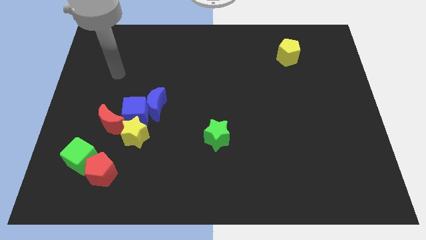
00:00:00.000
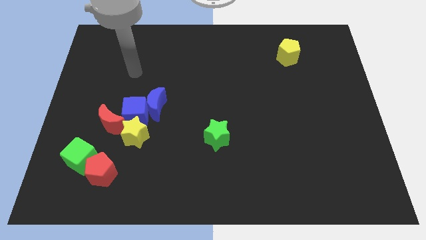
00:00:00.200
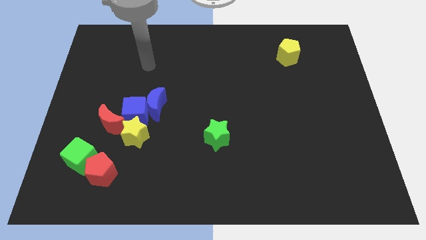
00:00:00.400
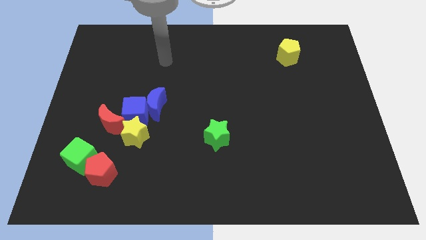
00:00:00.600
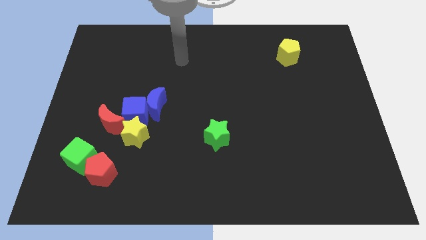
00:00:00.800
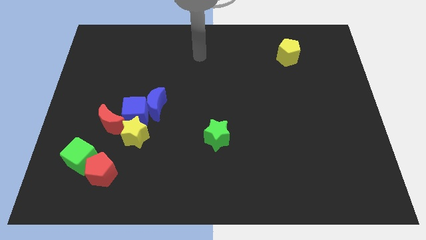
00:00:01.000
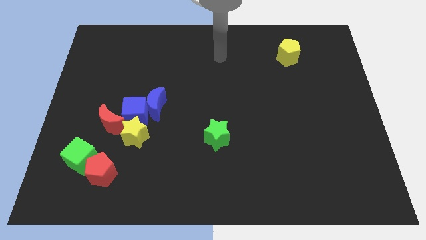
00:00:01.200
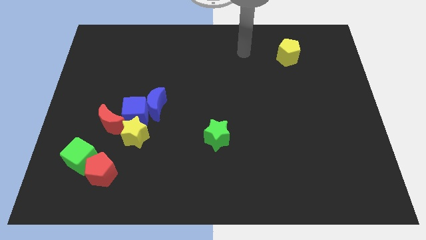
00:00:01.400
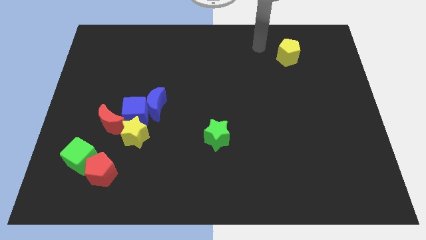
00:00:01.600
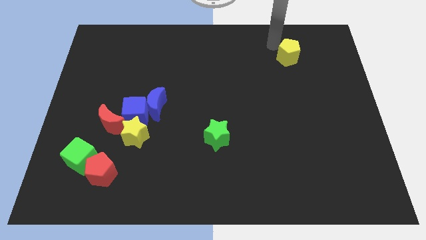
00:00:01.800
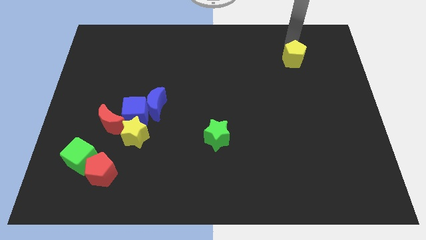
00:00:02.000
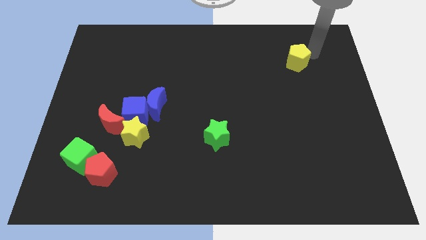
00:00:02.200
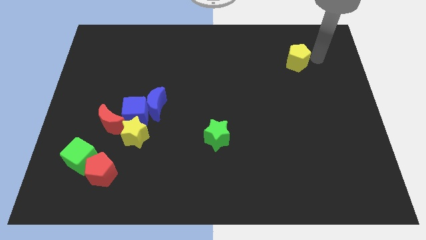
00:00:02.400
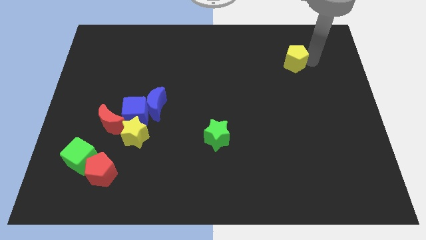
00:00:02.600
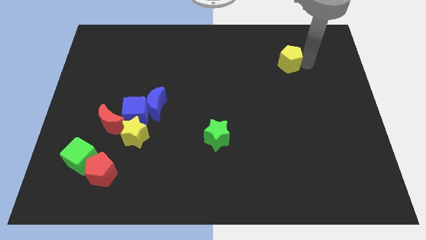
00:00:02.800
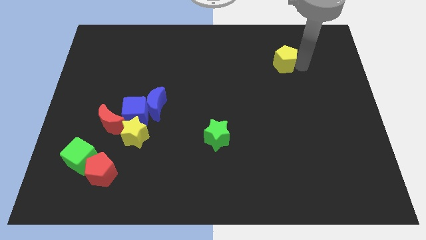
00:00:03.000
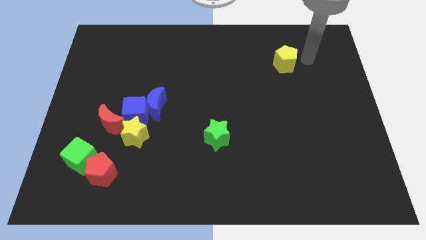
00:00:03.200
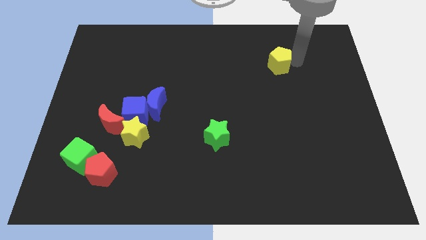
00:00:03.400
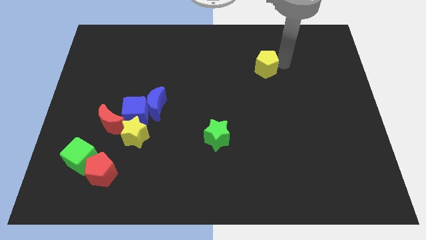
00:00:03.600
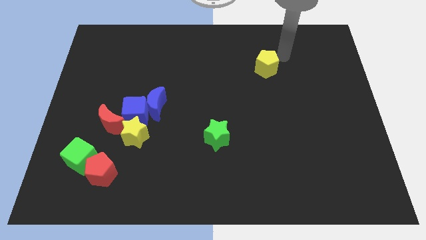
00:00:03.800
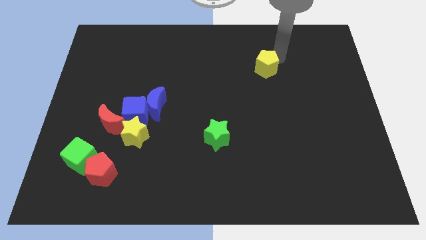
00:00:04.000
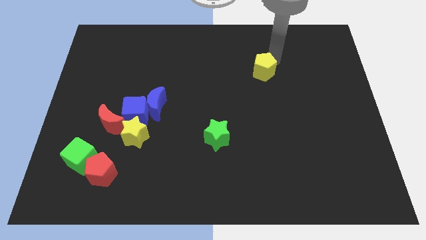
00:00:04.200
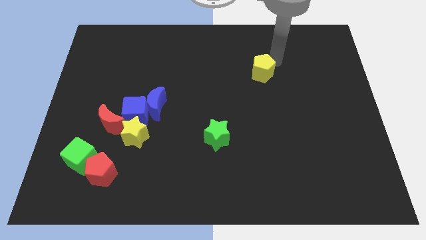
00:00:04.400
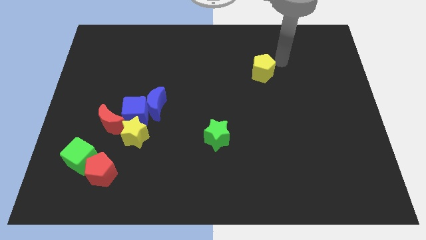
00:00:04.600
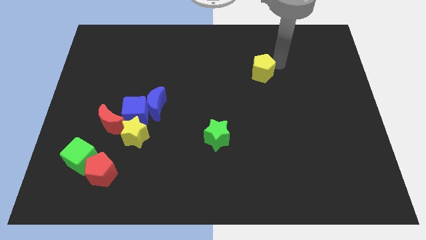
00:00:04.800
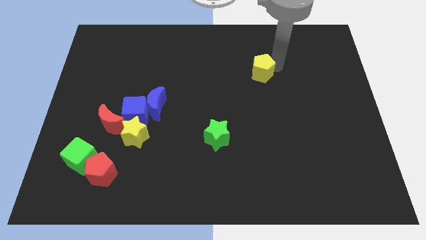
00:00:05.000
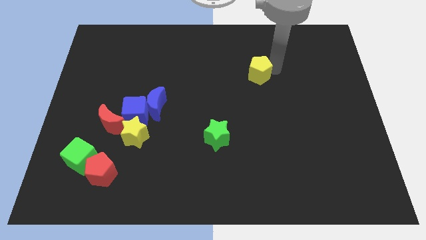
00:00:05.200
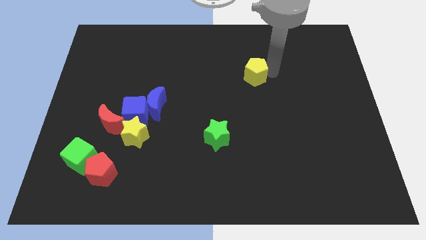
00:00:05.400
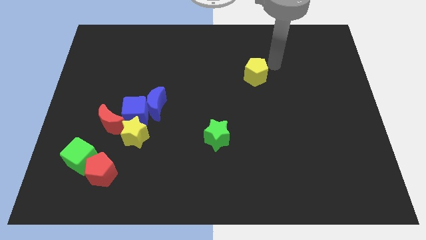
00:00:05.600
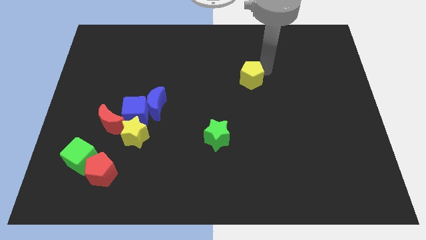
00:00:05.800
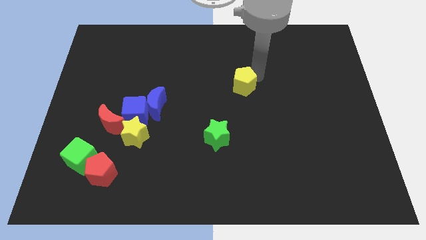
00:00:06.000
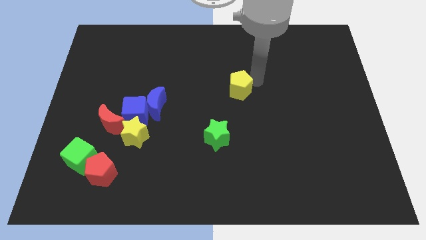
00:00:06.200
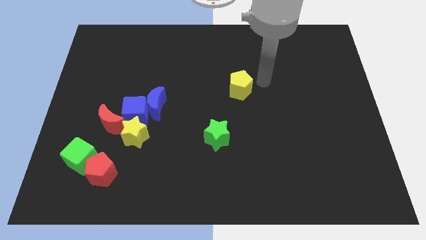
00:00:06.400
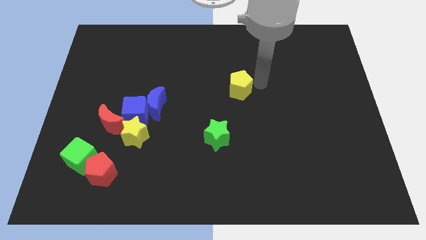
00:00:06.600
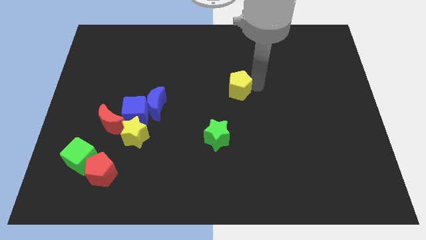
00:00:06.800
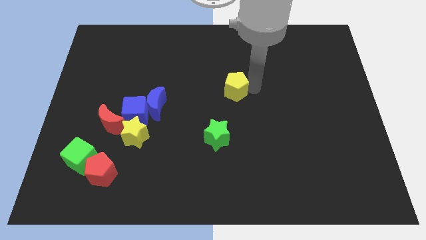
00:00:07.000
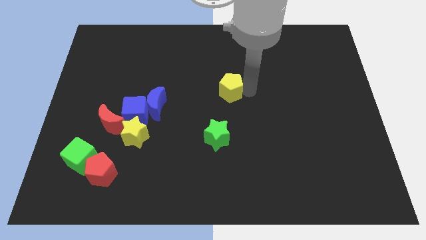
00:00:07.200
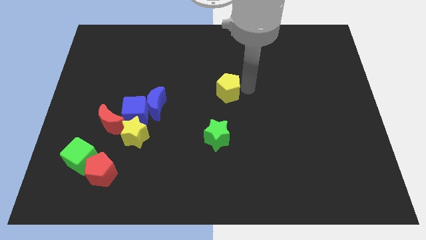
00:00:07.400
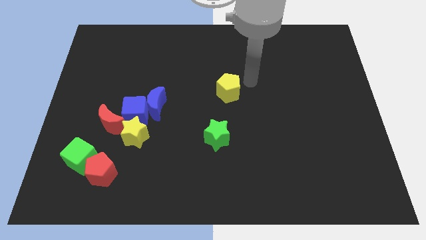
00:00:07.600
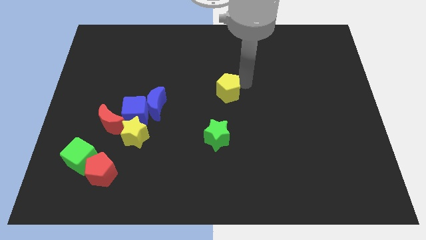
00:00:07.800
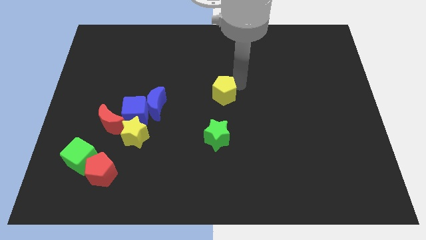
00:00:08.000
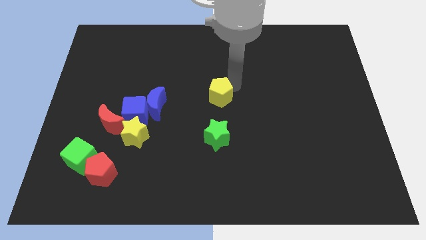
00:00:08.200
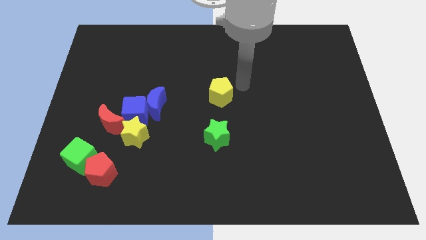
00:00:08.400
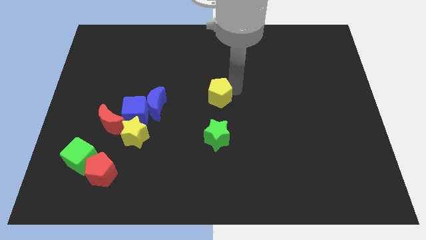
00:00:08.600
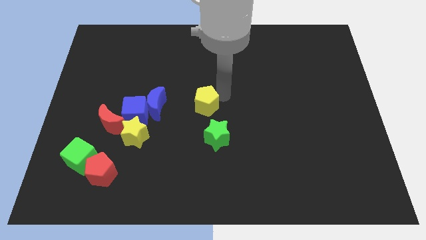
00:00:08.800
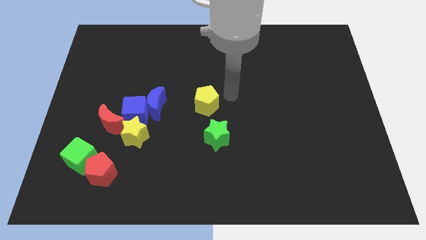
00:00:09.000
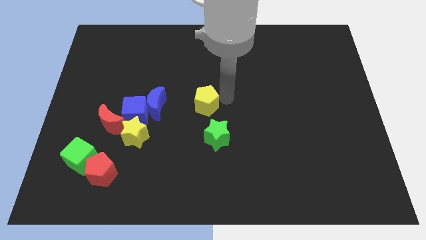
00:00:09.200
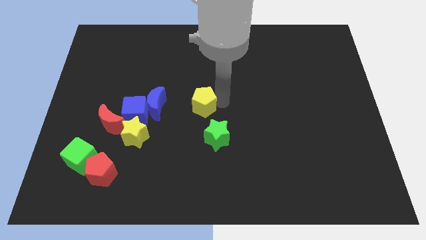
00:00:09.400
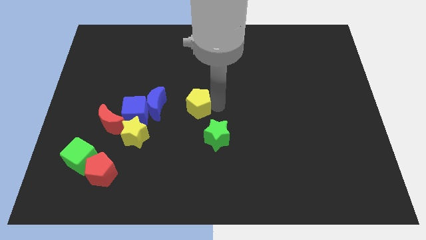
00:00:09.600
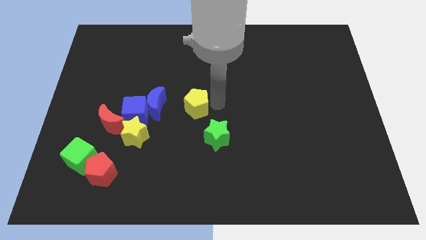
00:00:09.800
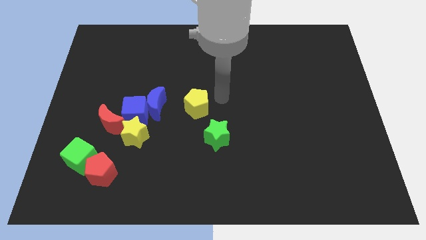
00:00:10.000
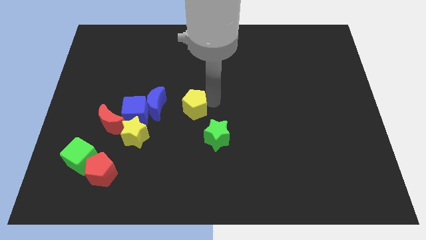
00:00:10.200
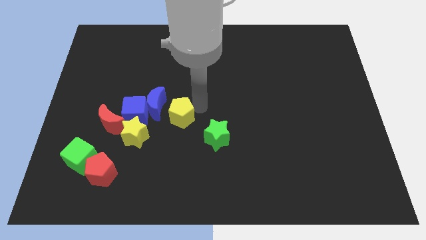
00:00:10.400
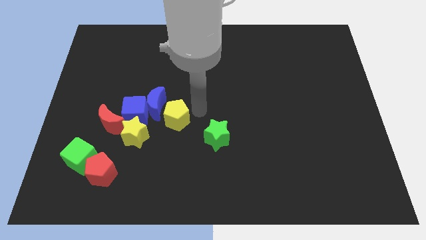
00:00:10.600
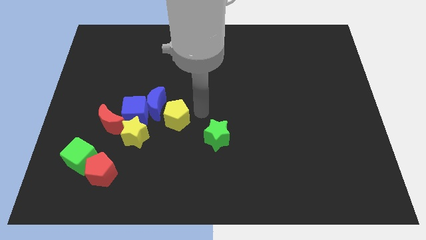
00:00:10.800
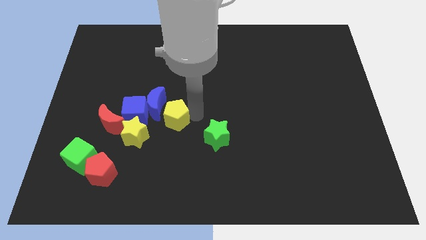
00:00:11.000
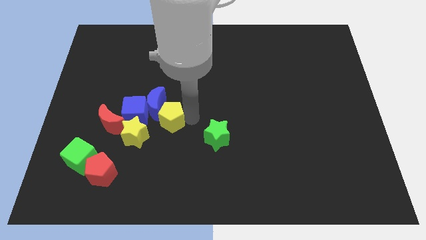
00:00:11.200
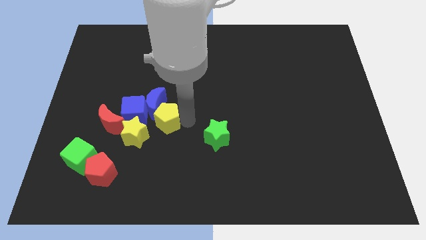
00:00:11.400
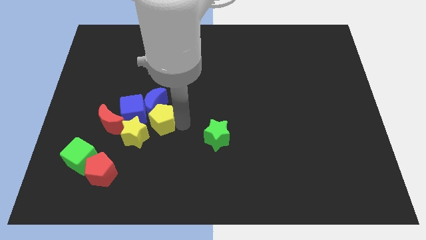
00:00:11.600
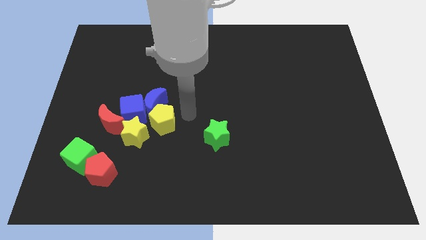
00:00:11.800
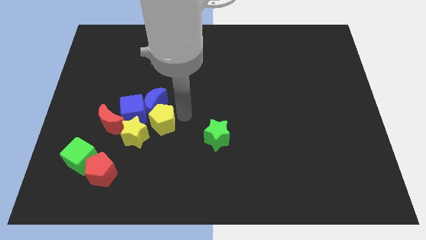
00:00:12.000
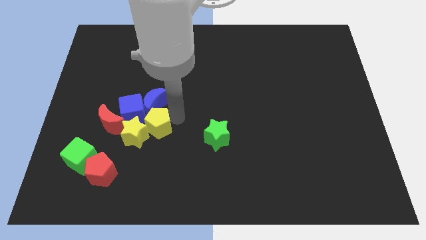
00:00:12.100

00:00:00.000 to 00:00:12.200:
slide the yellow pentagon towards the yellow star
